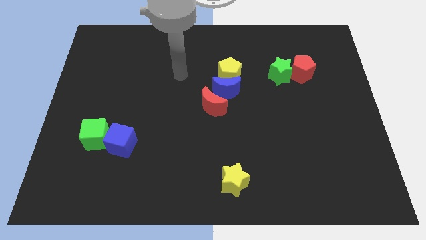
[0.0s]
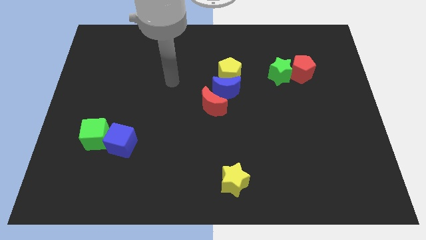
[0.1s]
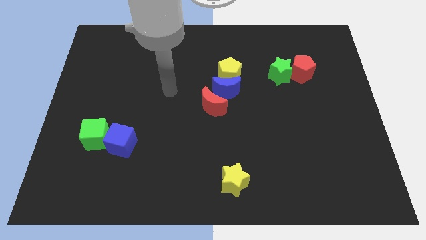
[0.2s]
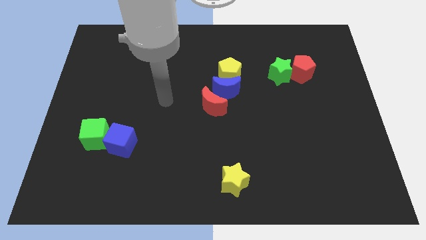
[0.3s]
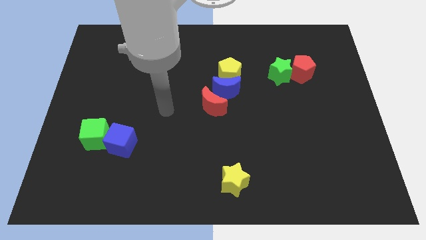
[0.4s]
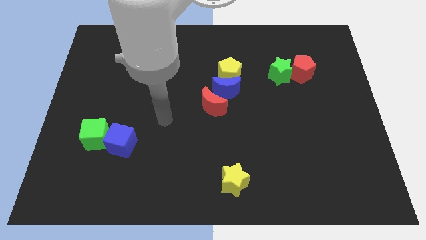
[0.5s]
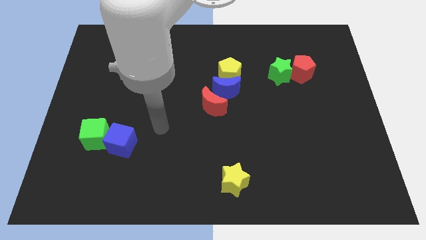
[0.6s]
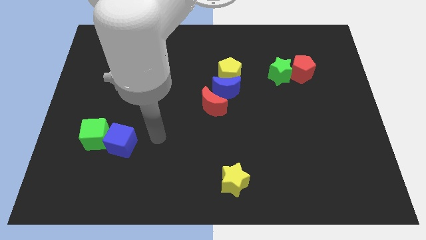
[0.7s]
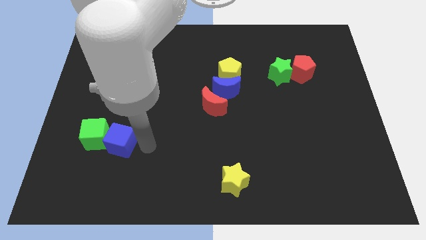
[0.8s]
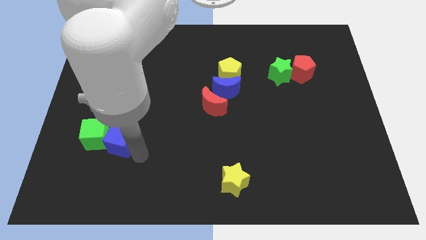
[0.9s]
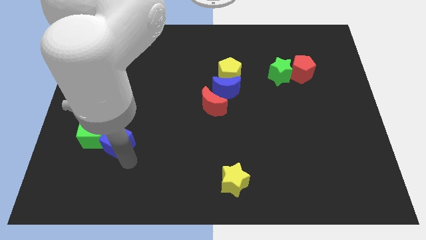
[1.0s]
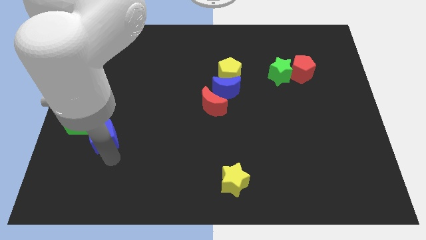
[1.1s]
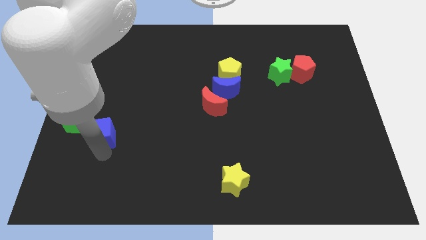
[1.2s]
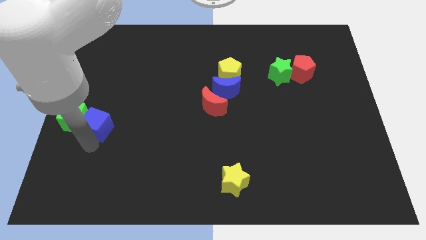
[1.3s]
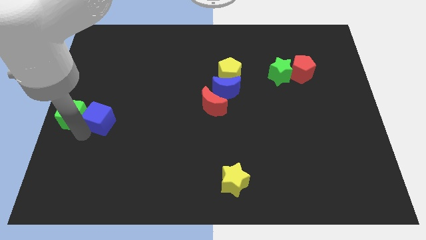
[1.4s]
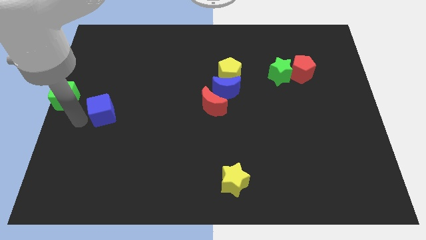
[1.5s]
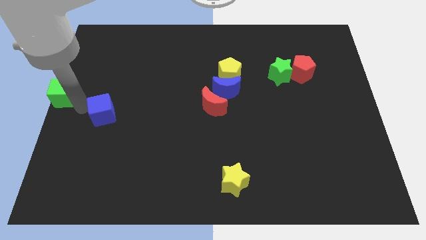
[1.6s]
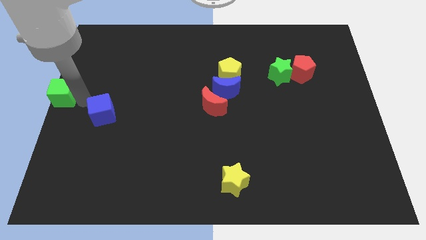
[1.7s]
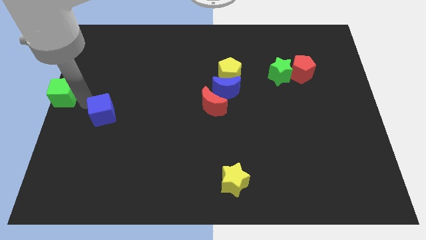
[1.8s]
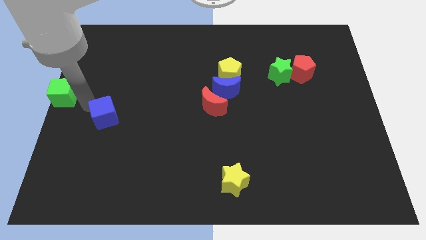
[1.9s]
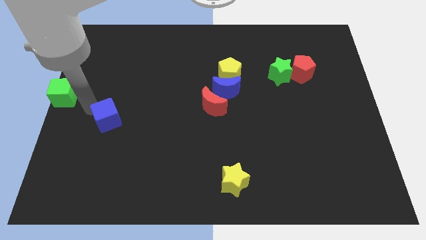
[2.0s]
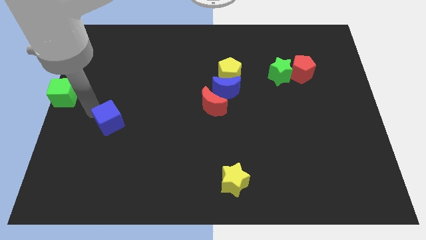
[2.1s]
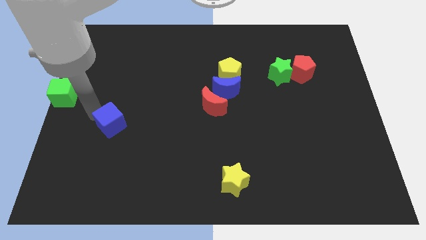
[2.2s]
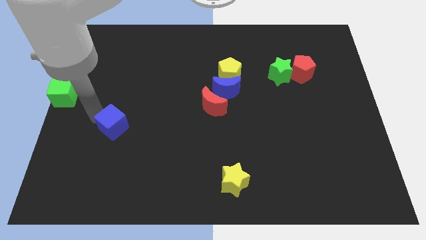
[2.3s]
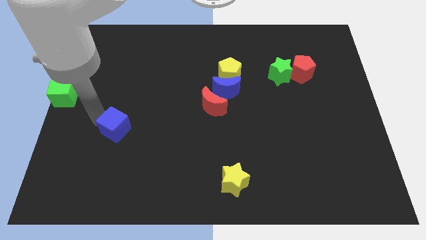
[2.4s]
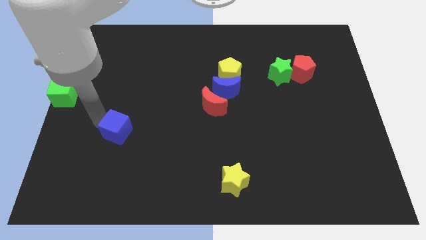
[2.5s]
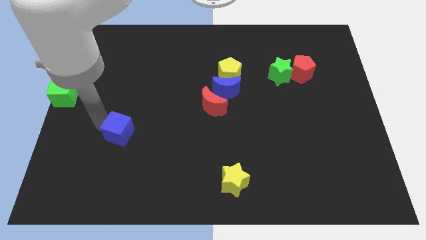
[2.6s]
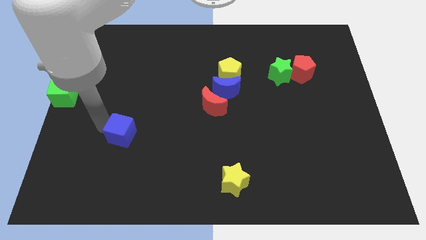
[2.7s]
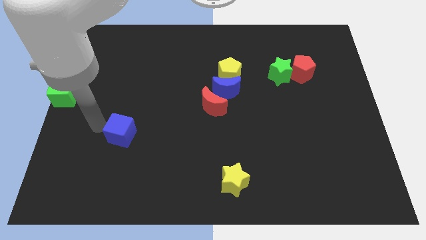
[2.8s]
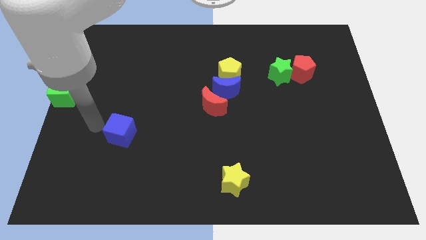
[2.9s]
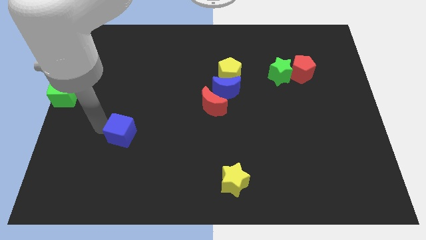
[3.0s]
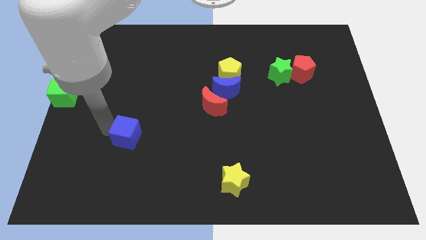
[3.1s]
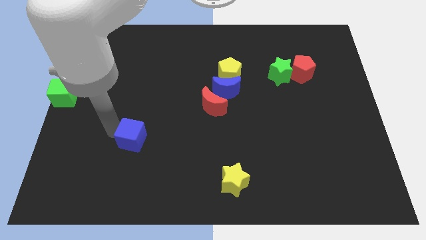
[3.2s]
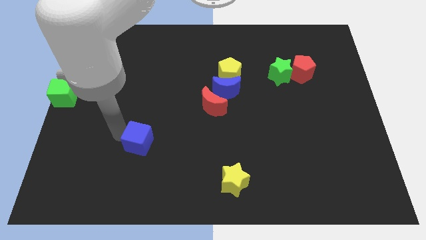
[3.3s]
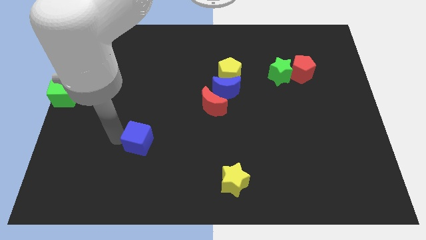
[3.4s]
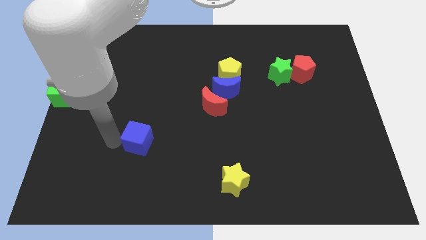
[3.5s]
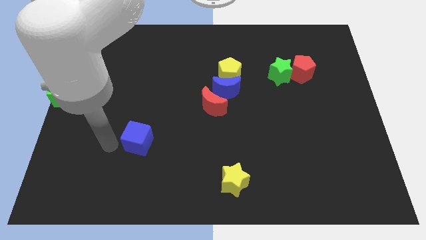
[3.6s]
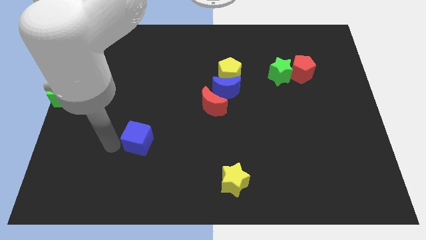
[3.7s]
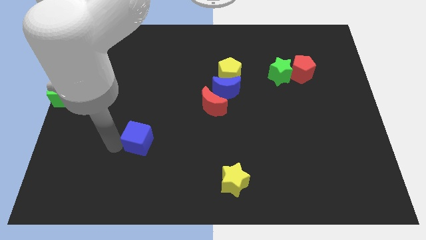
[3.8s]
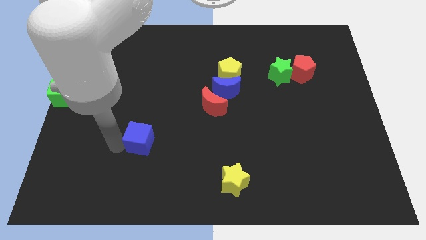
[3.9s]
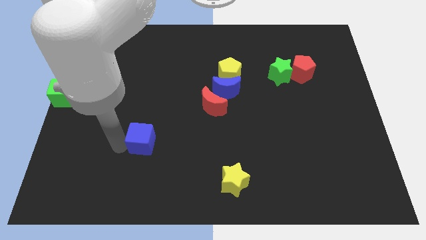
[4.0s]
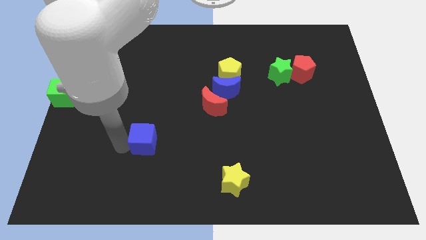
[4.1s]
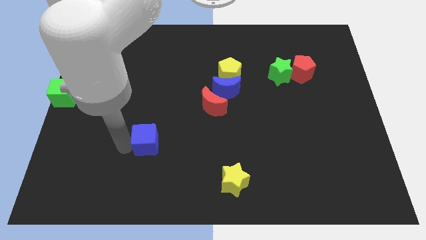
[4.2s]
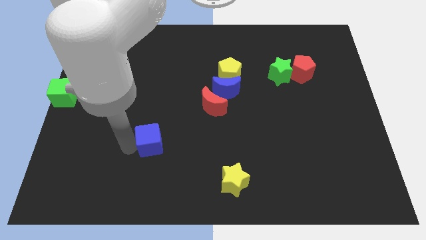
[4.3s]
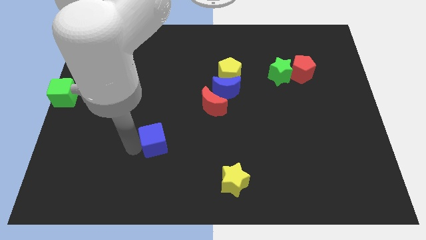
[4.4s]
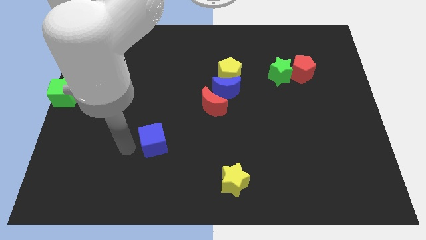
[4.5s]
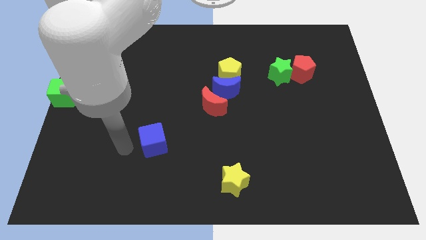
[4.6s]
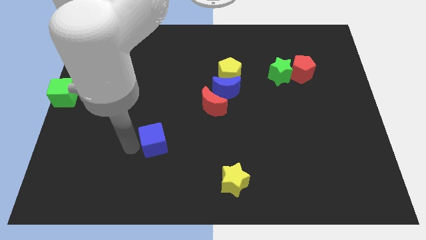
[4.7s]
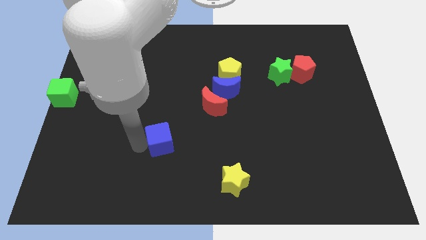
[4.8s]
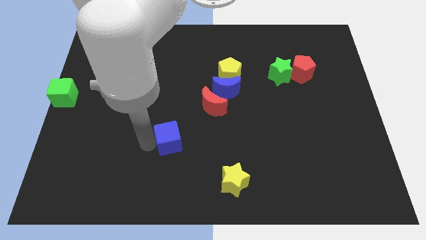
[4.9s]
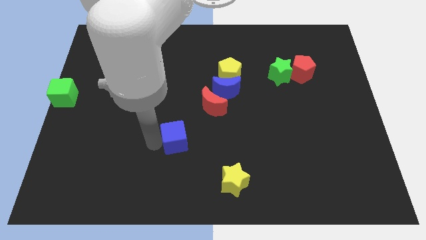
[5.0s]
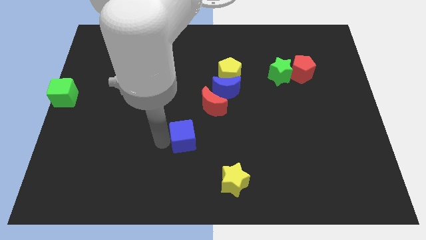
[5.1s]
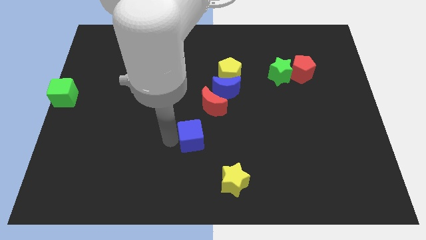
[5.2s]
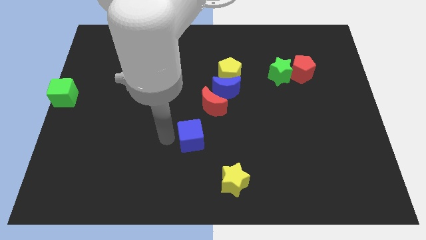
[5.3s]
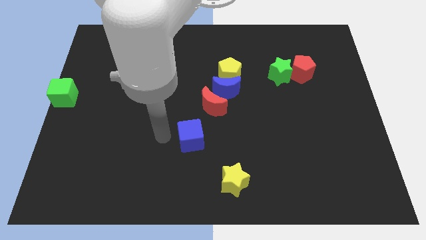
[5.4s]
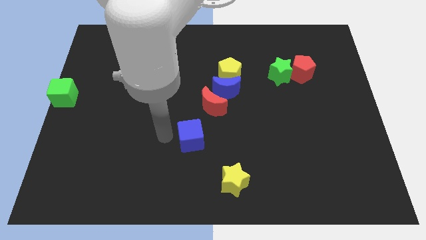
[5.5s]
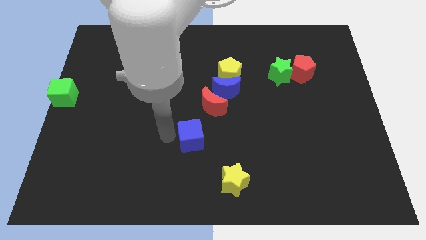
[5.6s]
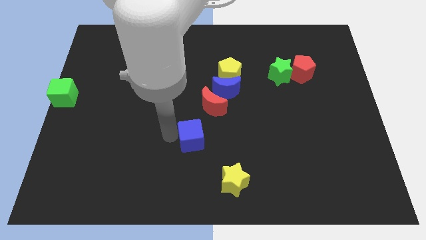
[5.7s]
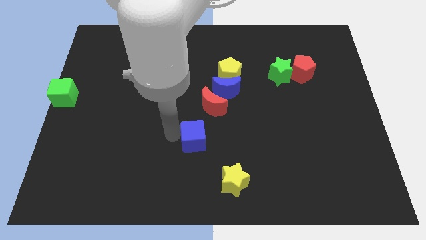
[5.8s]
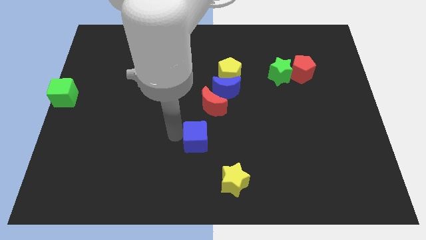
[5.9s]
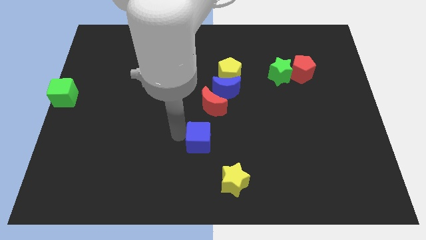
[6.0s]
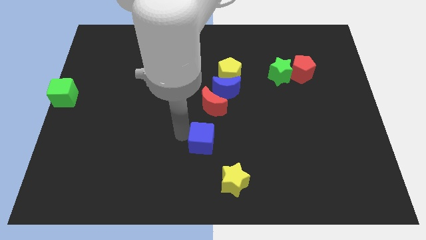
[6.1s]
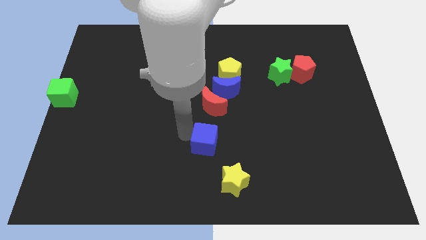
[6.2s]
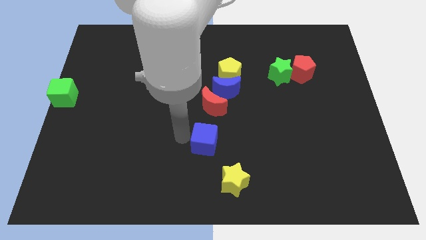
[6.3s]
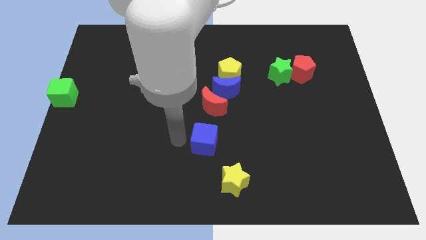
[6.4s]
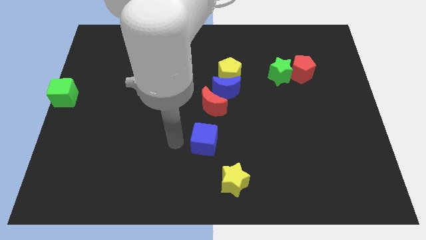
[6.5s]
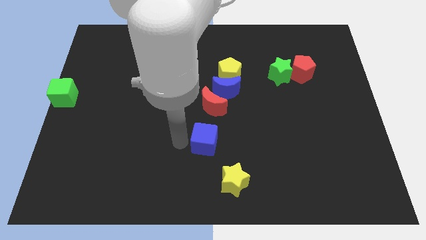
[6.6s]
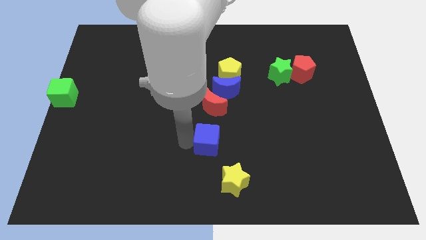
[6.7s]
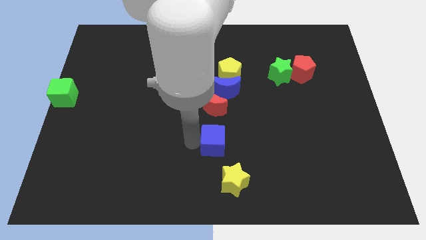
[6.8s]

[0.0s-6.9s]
move the blue cube to the right

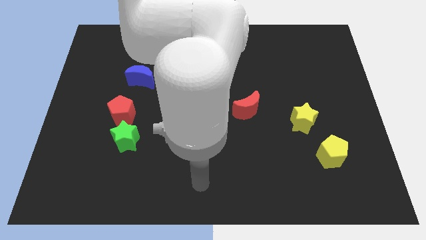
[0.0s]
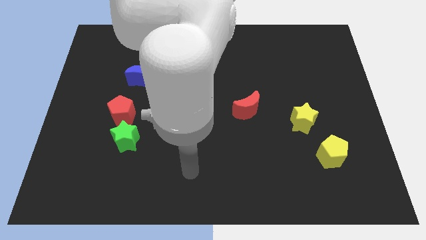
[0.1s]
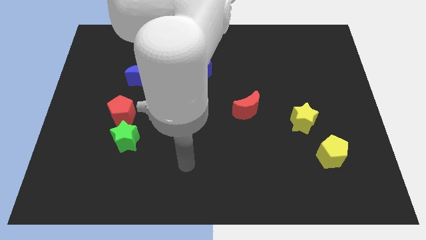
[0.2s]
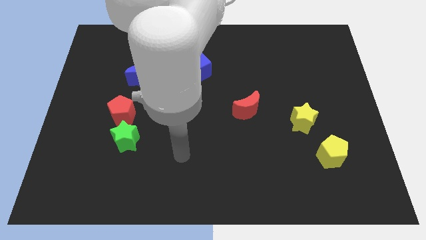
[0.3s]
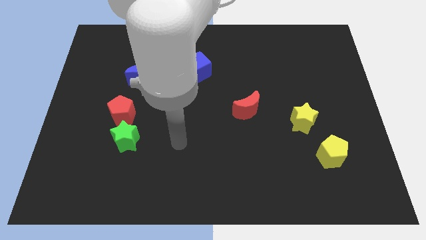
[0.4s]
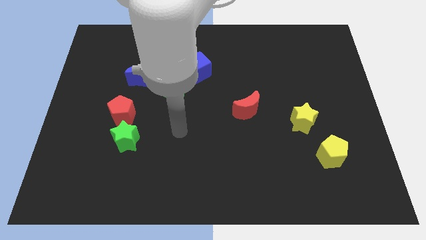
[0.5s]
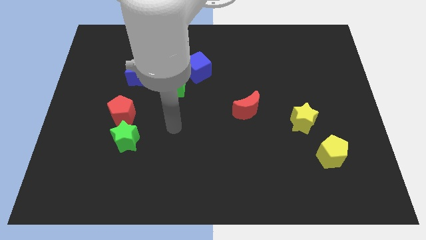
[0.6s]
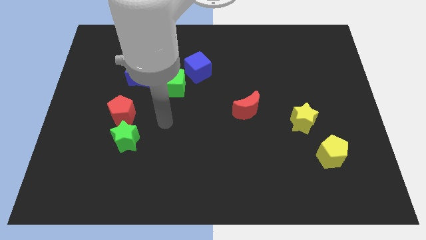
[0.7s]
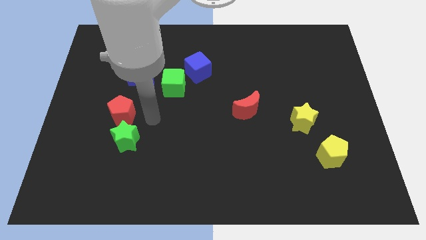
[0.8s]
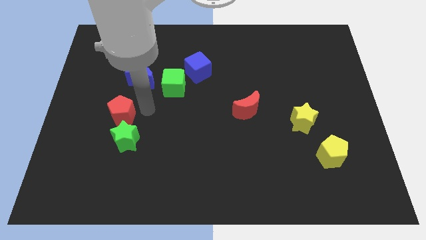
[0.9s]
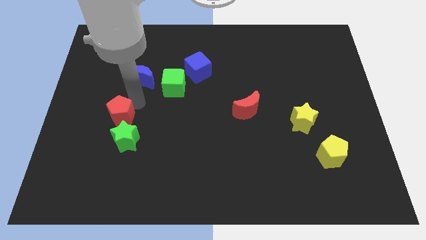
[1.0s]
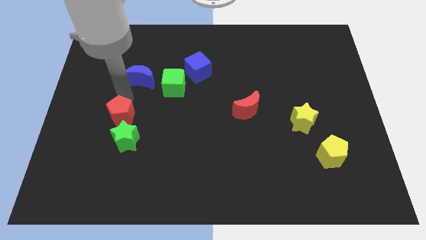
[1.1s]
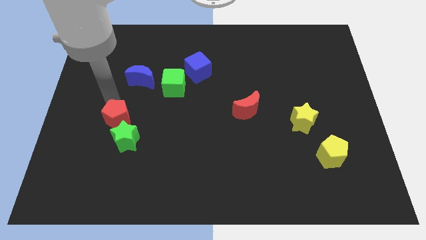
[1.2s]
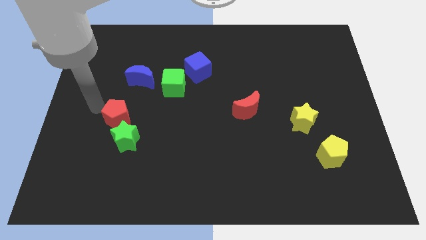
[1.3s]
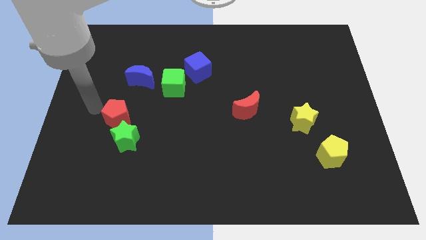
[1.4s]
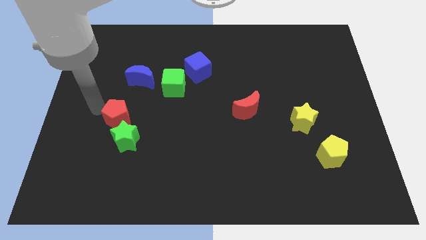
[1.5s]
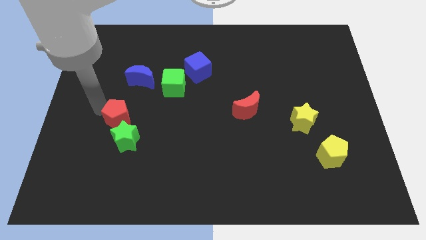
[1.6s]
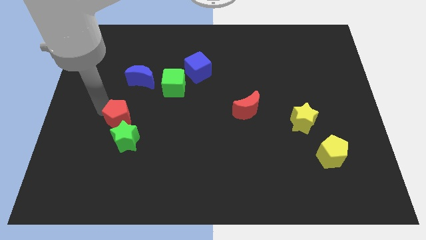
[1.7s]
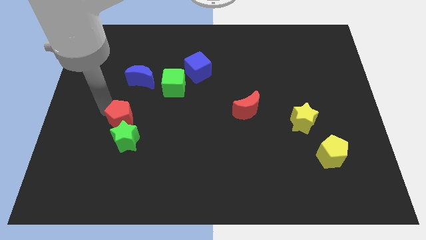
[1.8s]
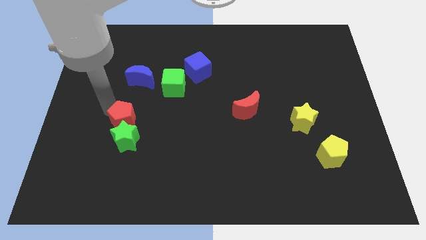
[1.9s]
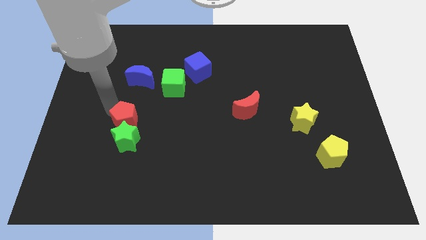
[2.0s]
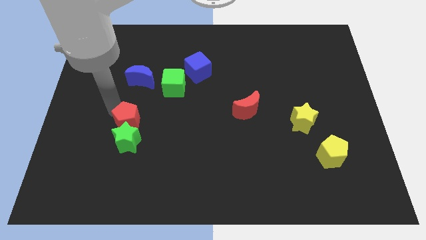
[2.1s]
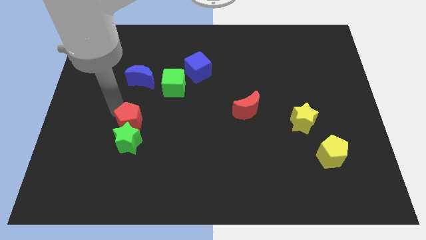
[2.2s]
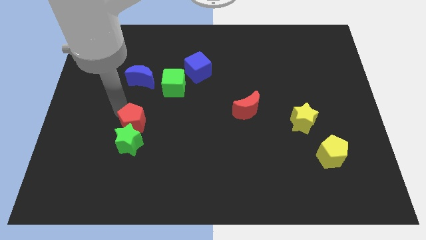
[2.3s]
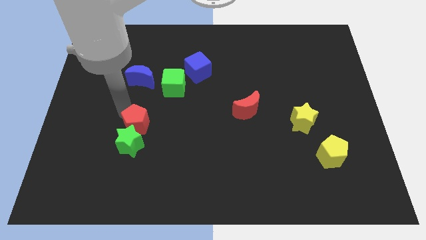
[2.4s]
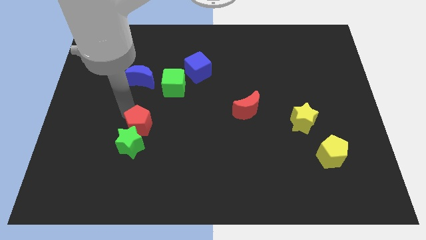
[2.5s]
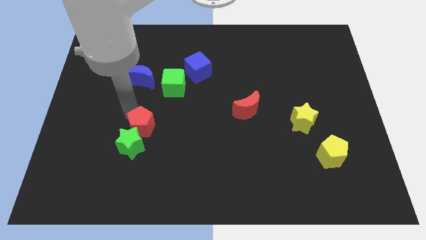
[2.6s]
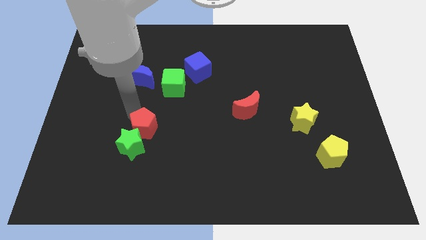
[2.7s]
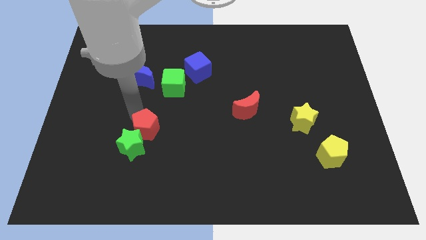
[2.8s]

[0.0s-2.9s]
push the red pentagon downwards and then right somewhat
